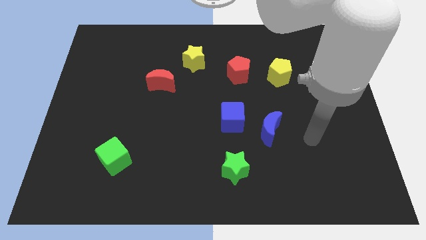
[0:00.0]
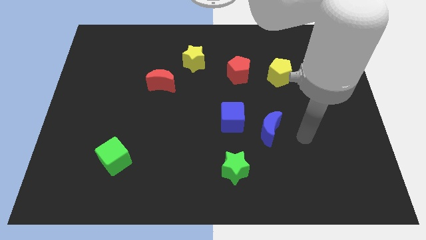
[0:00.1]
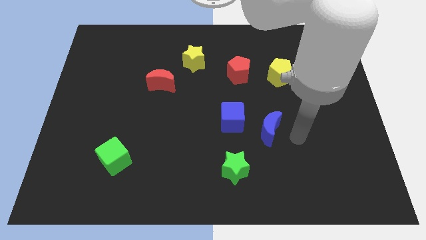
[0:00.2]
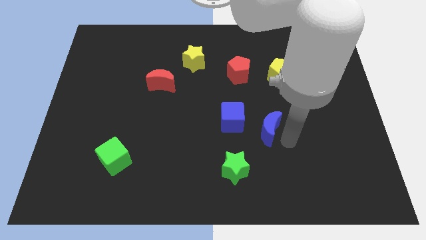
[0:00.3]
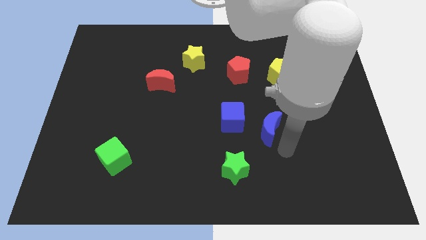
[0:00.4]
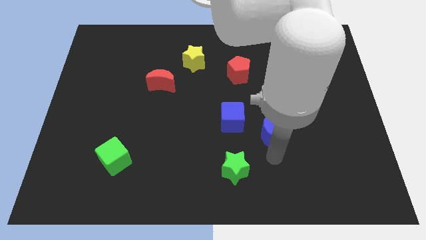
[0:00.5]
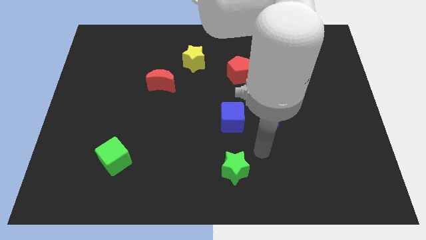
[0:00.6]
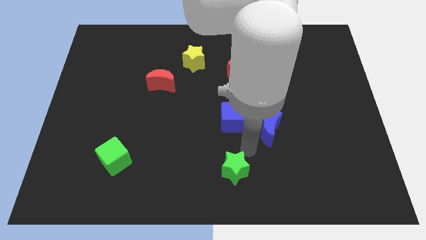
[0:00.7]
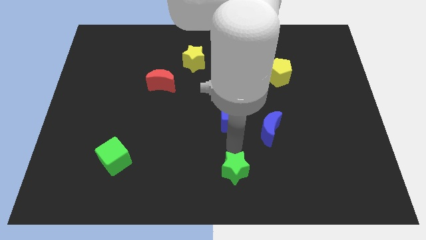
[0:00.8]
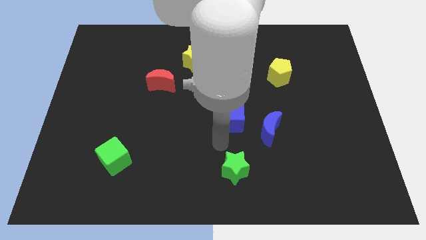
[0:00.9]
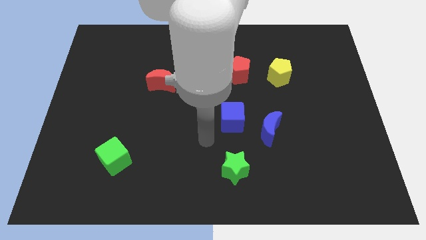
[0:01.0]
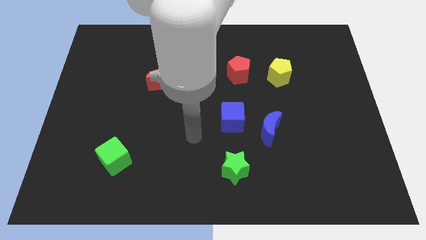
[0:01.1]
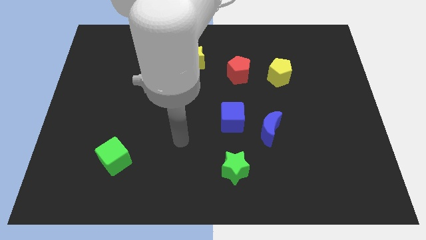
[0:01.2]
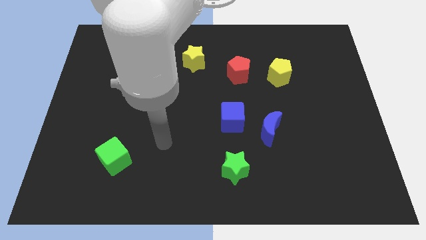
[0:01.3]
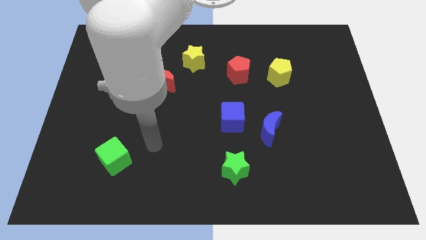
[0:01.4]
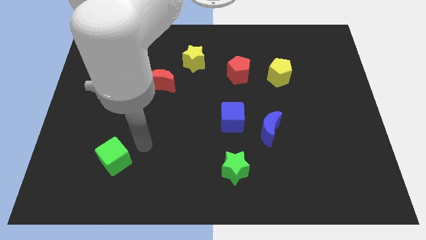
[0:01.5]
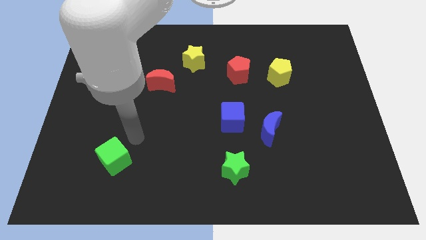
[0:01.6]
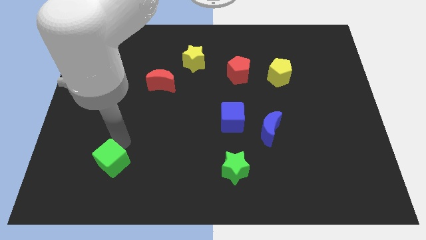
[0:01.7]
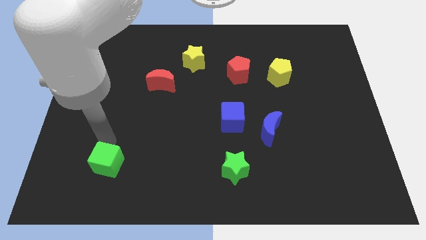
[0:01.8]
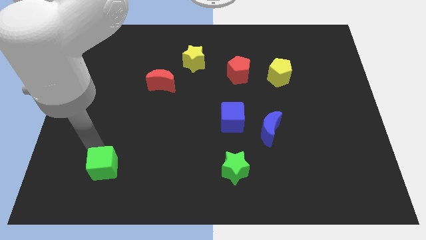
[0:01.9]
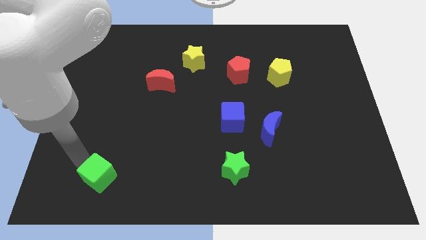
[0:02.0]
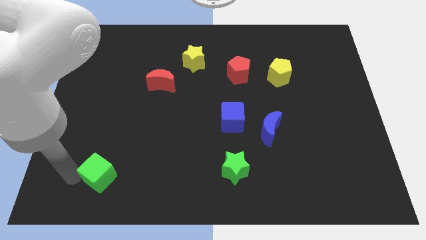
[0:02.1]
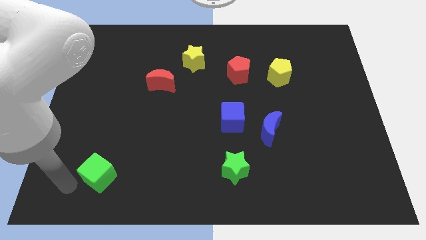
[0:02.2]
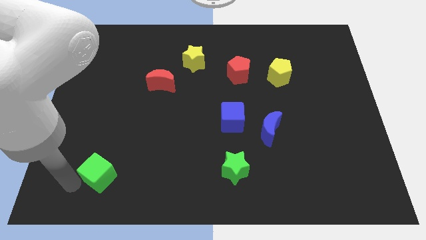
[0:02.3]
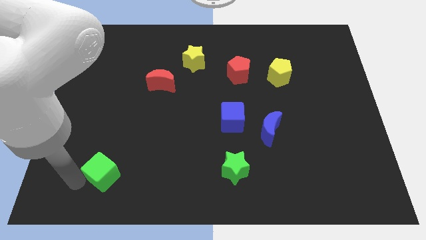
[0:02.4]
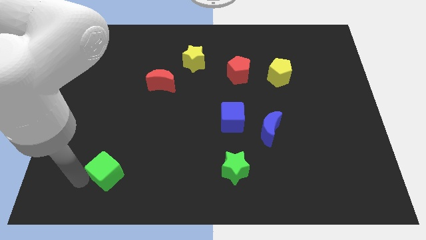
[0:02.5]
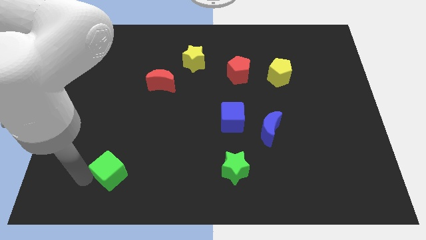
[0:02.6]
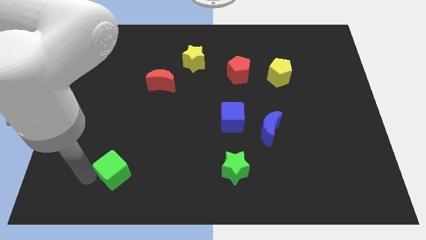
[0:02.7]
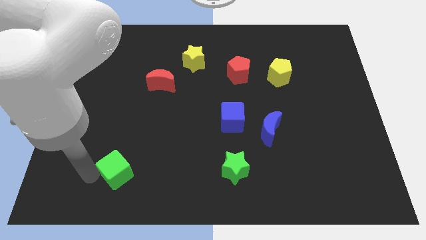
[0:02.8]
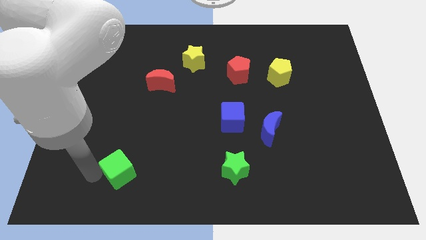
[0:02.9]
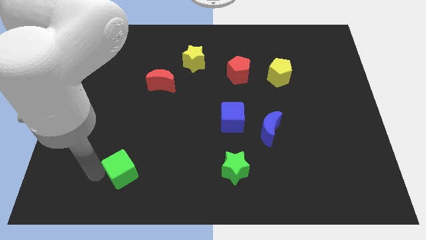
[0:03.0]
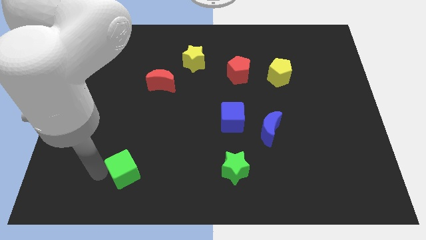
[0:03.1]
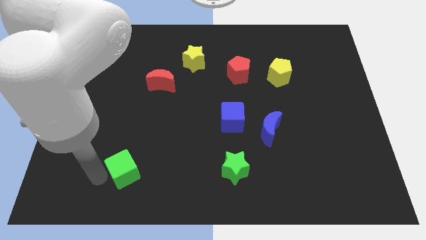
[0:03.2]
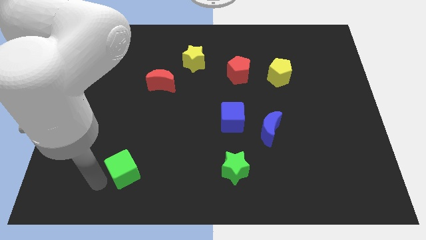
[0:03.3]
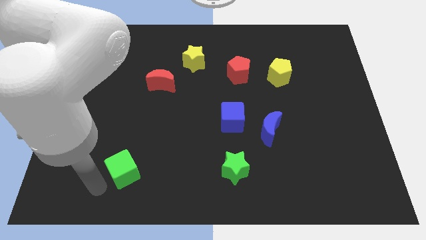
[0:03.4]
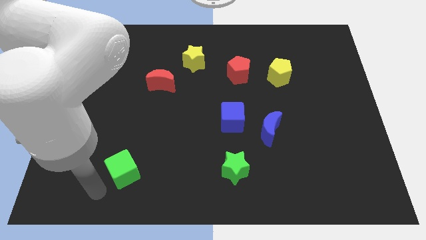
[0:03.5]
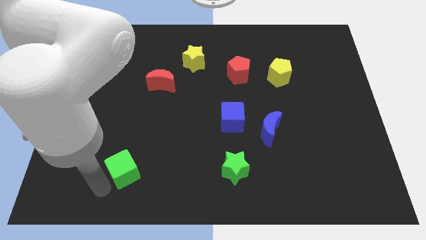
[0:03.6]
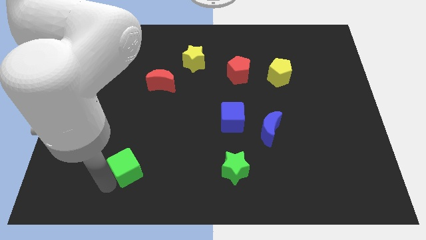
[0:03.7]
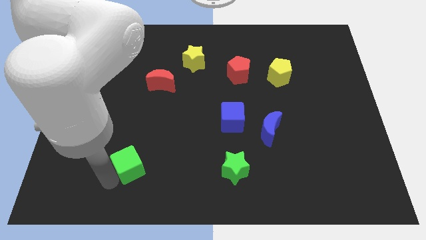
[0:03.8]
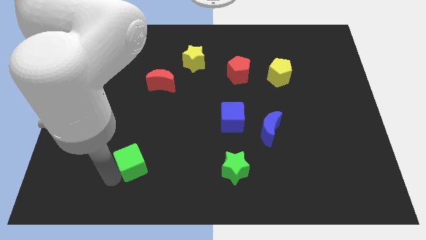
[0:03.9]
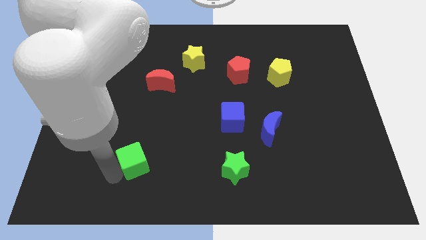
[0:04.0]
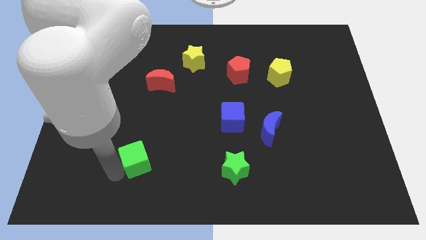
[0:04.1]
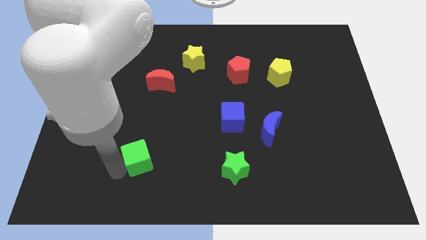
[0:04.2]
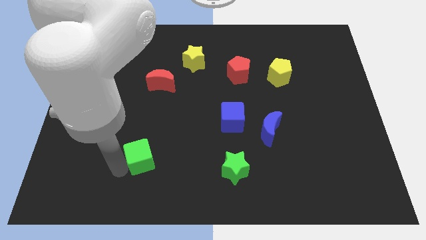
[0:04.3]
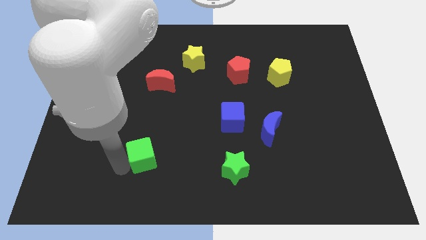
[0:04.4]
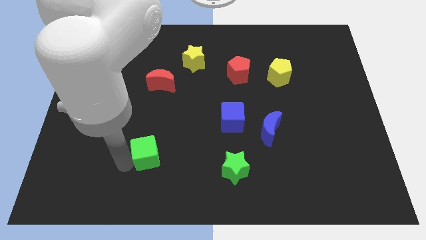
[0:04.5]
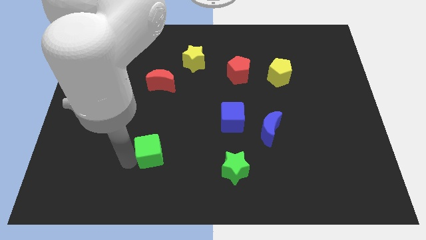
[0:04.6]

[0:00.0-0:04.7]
slide the green cube somewhat right

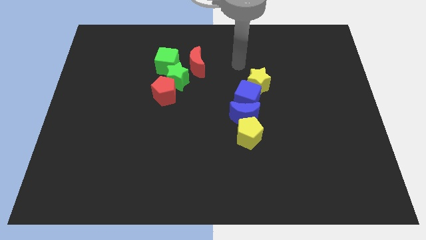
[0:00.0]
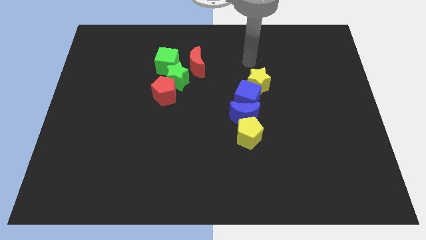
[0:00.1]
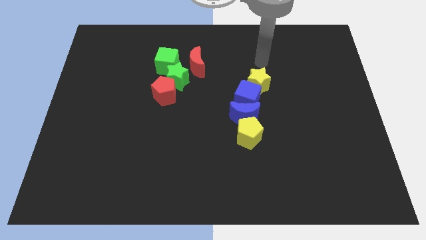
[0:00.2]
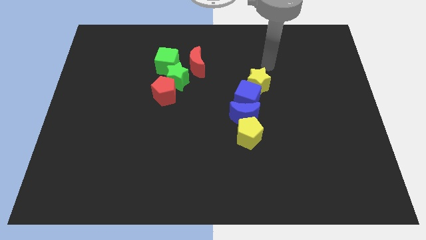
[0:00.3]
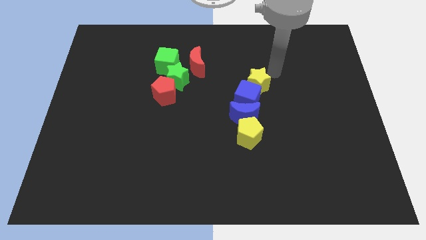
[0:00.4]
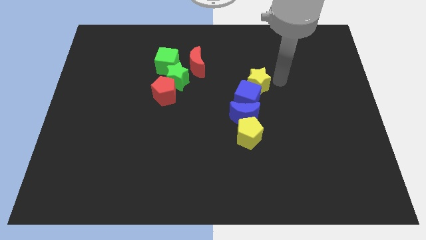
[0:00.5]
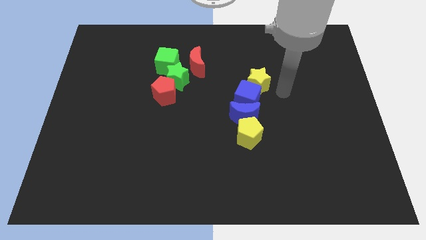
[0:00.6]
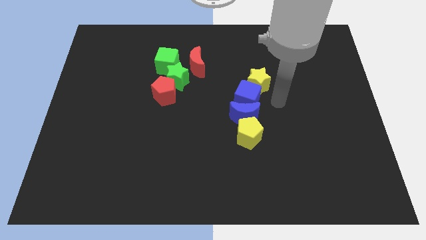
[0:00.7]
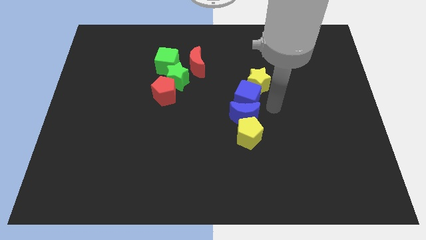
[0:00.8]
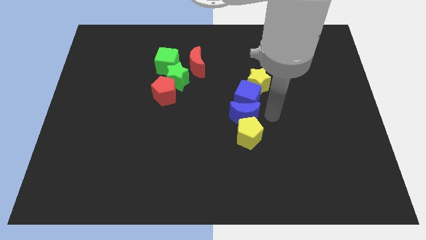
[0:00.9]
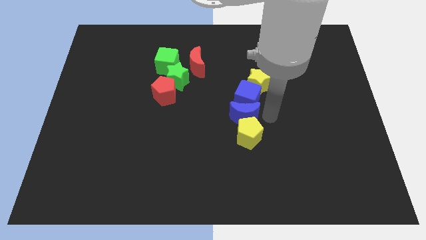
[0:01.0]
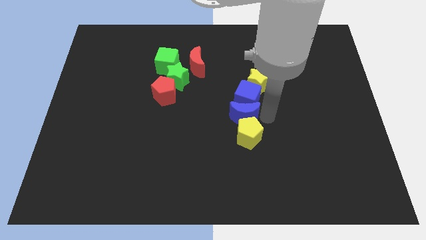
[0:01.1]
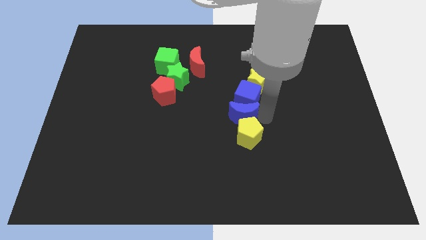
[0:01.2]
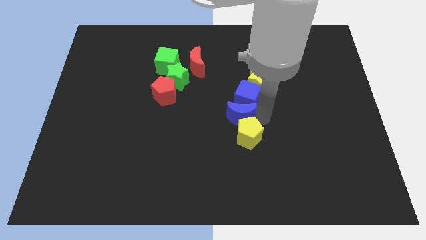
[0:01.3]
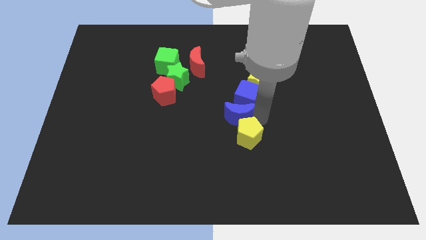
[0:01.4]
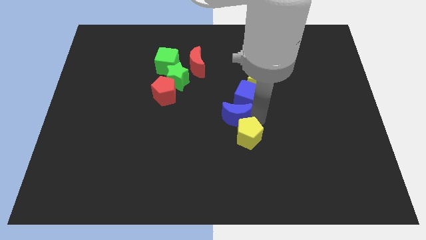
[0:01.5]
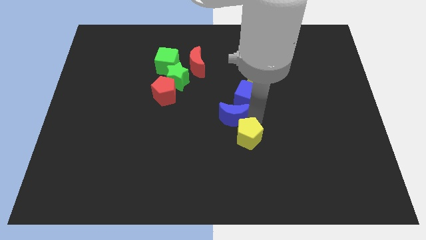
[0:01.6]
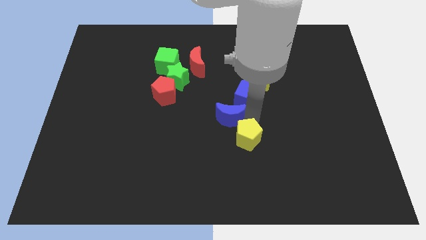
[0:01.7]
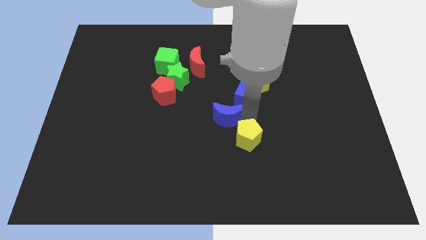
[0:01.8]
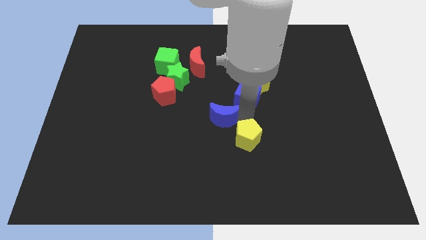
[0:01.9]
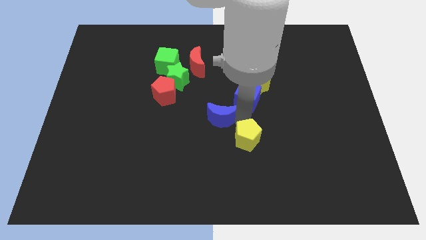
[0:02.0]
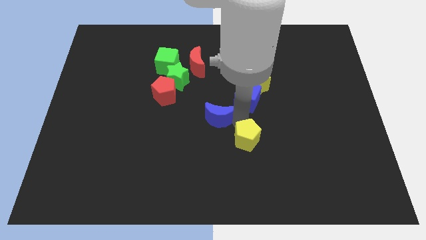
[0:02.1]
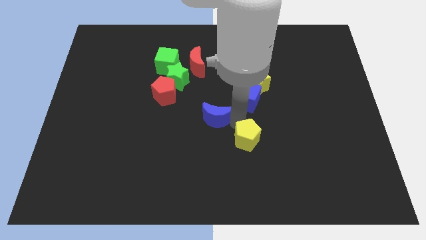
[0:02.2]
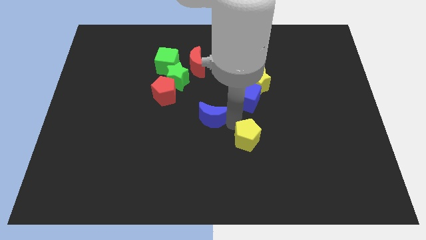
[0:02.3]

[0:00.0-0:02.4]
slide the blue moon slightly left

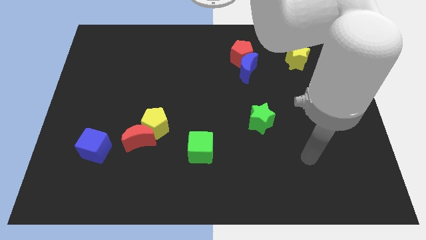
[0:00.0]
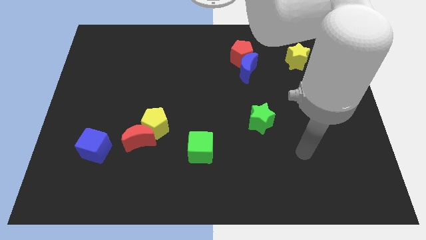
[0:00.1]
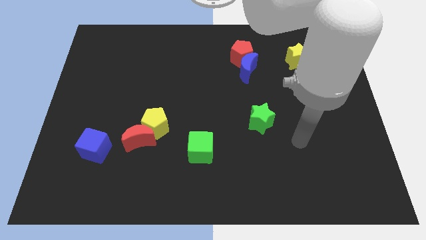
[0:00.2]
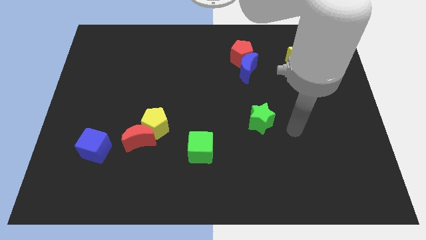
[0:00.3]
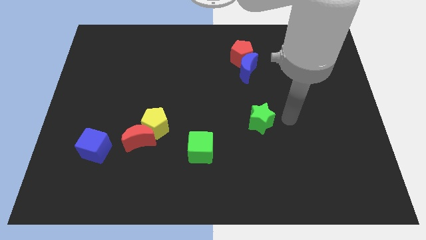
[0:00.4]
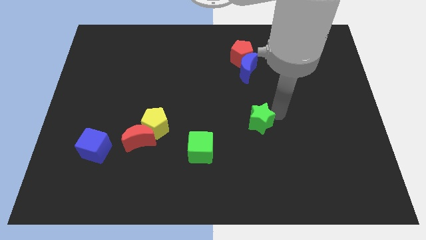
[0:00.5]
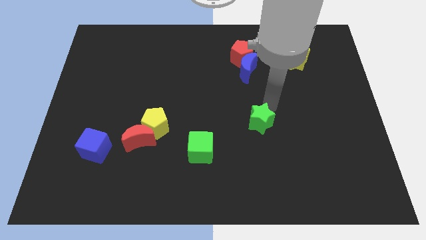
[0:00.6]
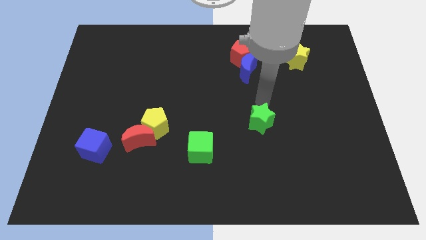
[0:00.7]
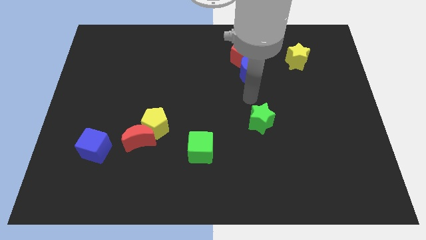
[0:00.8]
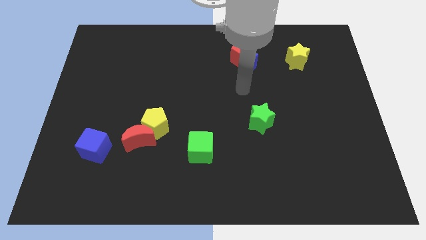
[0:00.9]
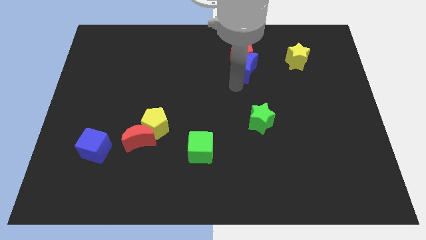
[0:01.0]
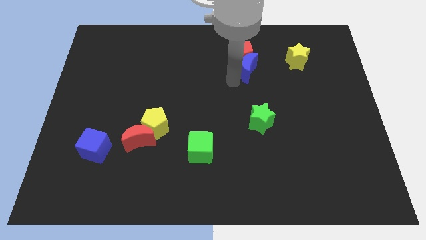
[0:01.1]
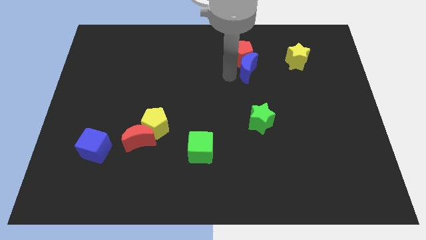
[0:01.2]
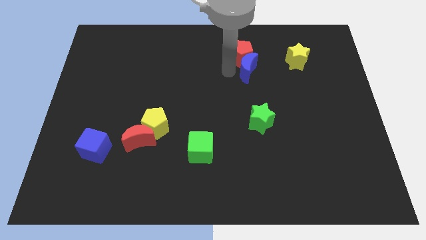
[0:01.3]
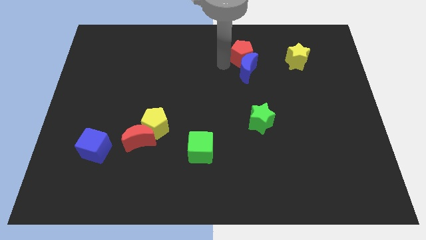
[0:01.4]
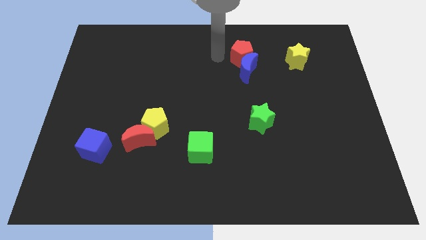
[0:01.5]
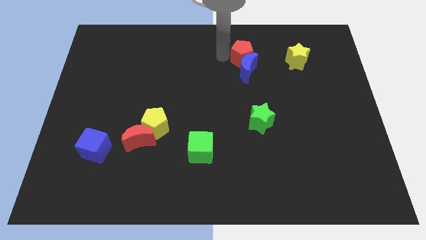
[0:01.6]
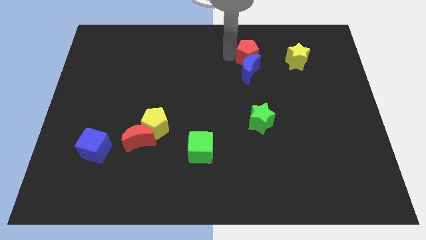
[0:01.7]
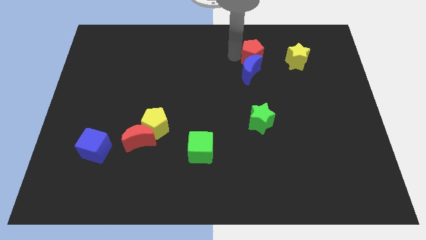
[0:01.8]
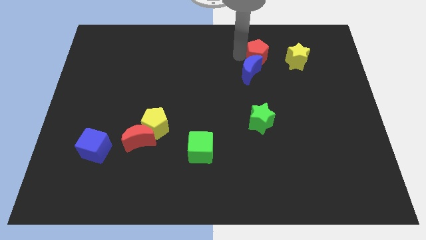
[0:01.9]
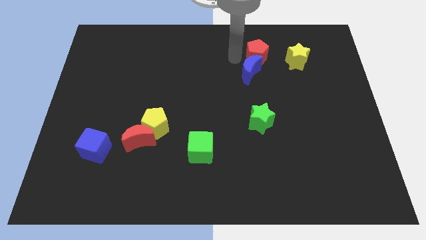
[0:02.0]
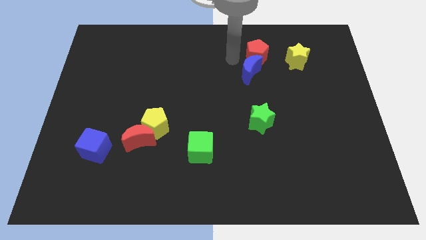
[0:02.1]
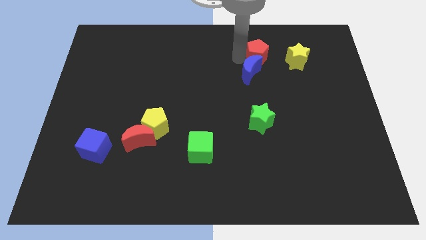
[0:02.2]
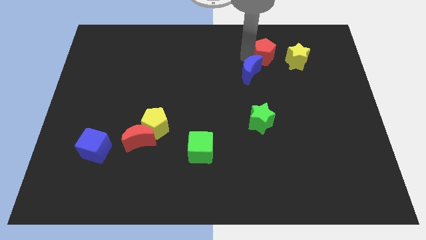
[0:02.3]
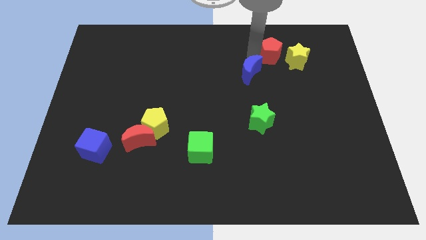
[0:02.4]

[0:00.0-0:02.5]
slide the red pentagon a little right
